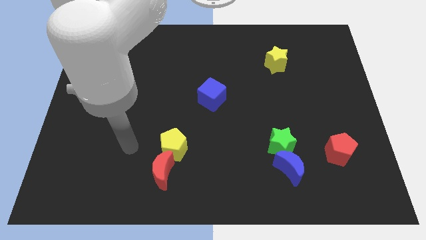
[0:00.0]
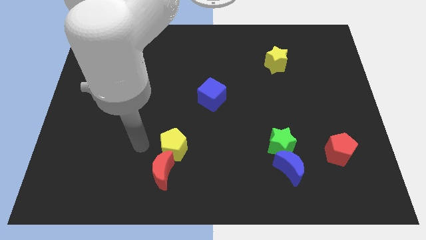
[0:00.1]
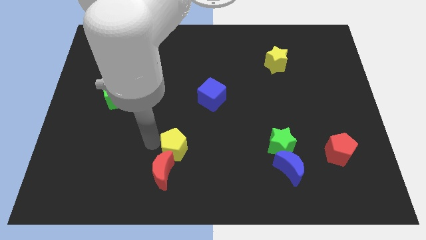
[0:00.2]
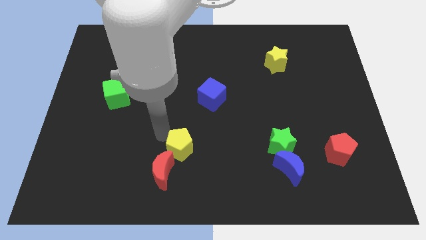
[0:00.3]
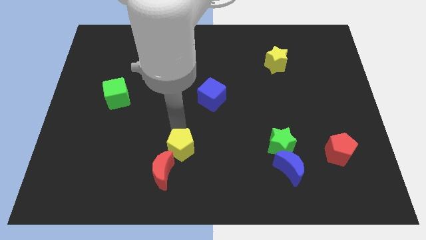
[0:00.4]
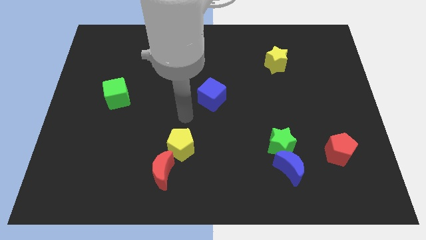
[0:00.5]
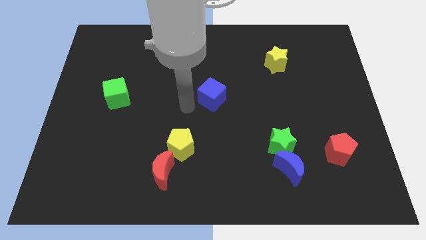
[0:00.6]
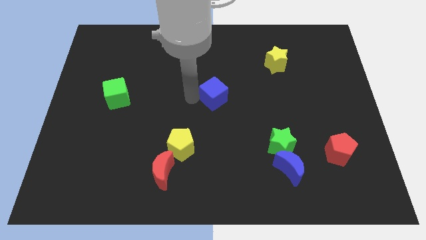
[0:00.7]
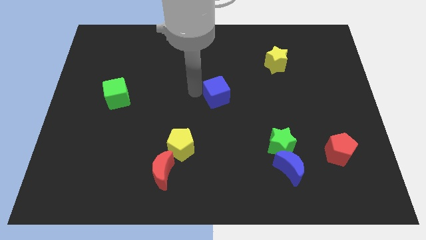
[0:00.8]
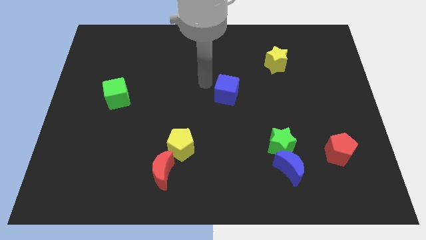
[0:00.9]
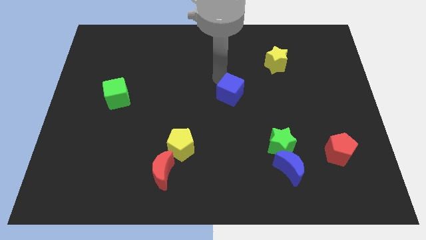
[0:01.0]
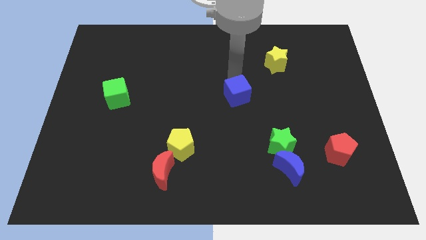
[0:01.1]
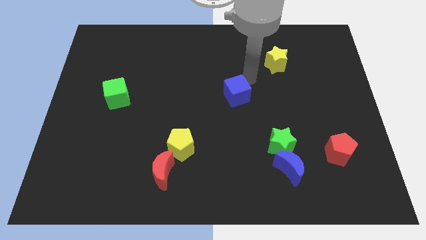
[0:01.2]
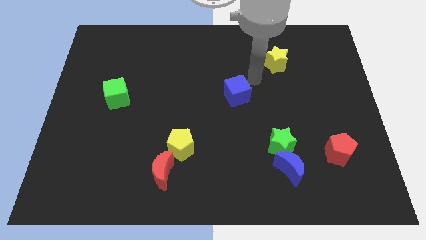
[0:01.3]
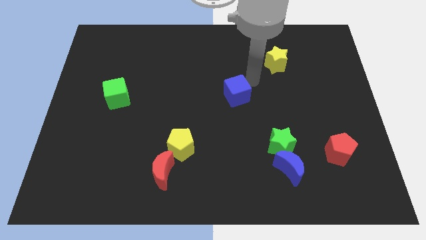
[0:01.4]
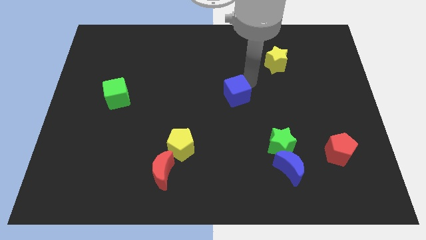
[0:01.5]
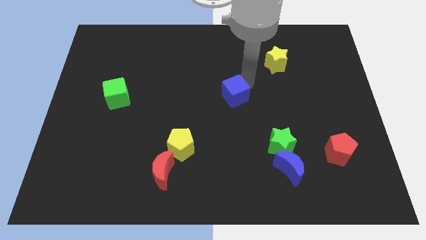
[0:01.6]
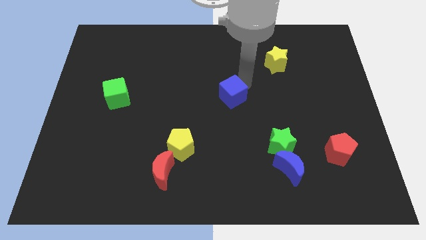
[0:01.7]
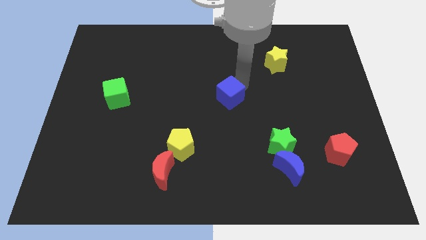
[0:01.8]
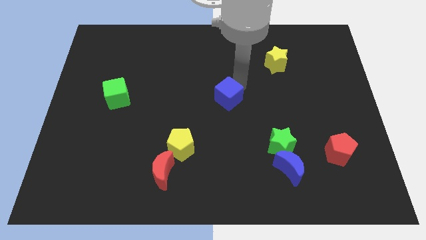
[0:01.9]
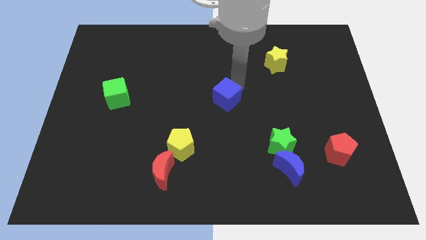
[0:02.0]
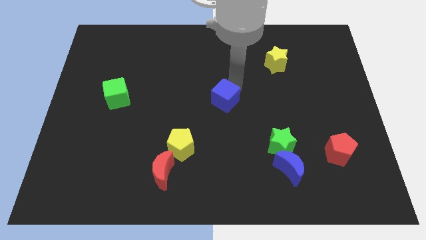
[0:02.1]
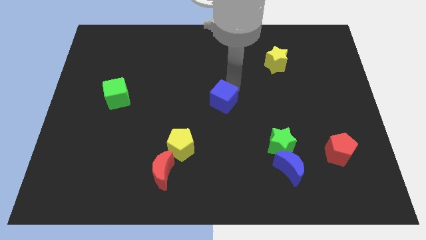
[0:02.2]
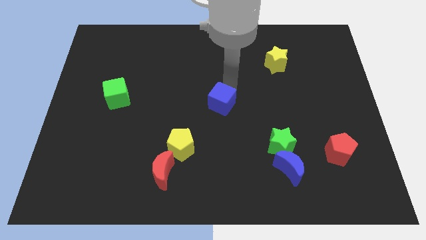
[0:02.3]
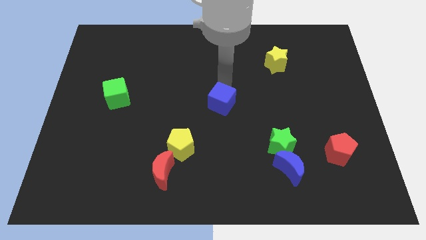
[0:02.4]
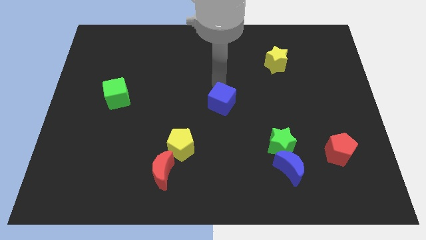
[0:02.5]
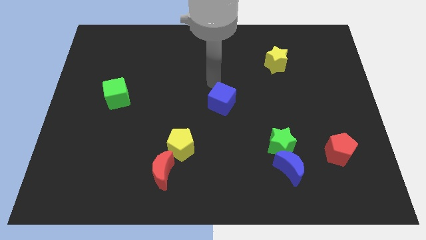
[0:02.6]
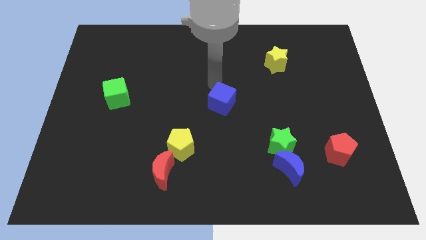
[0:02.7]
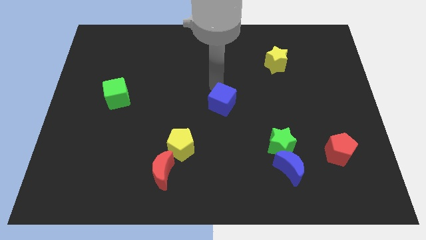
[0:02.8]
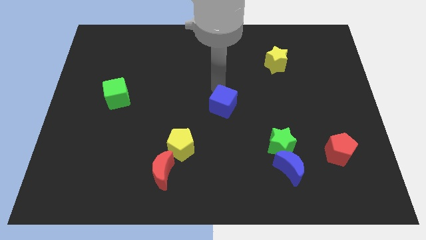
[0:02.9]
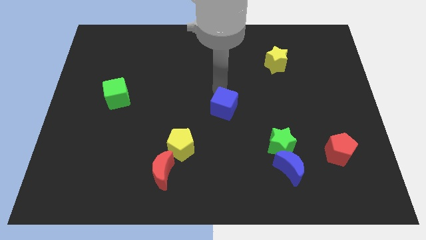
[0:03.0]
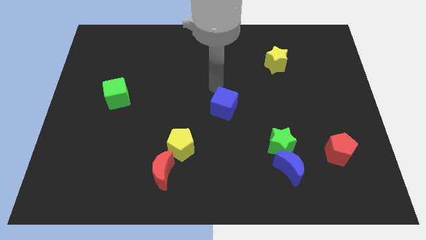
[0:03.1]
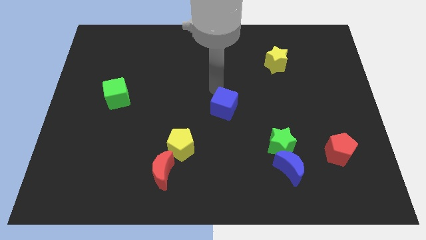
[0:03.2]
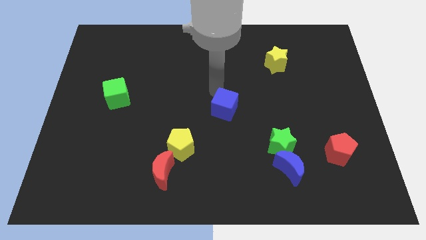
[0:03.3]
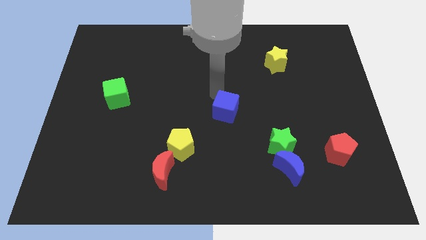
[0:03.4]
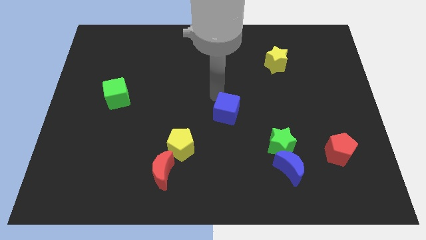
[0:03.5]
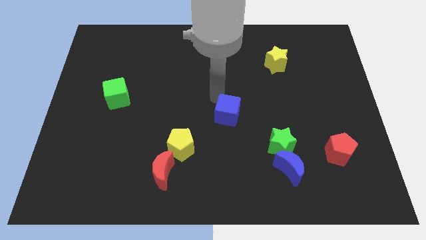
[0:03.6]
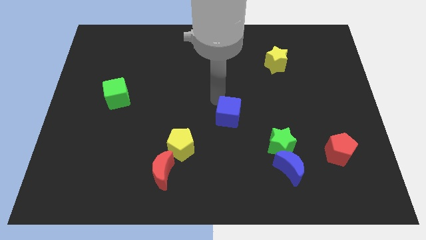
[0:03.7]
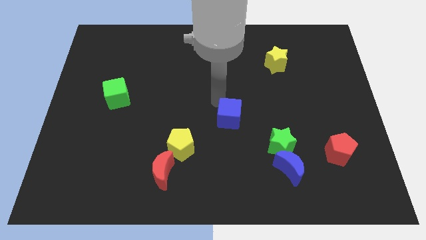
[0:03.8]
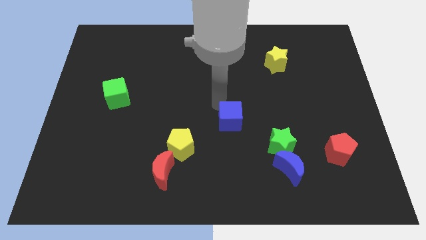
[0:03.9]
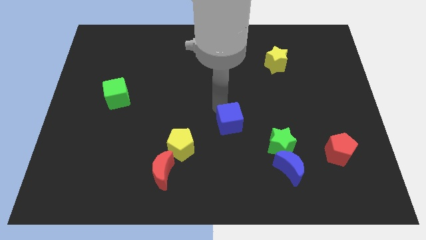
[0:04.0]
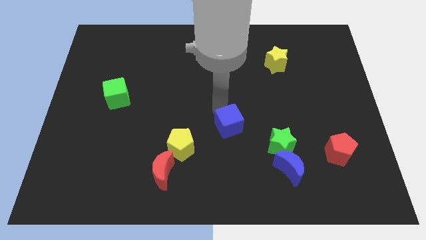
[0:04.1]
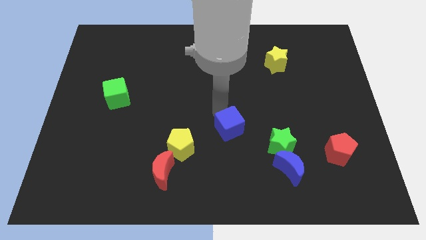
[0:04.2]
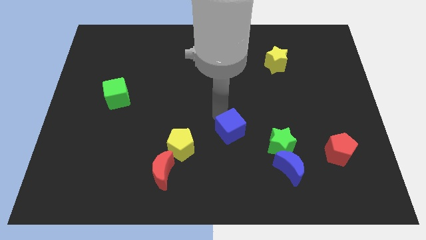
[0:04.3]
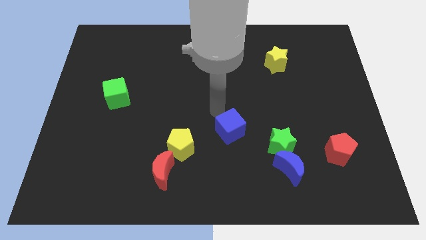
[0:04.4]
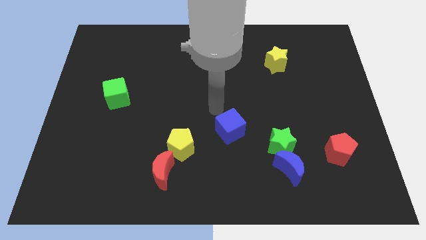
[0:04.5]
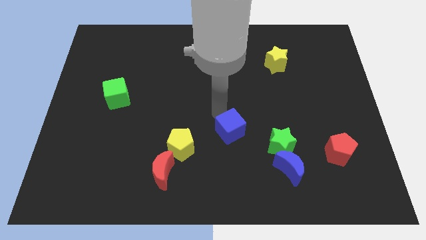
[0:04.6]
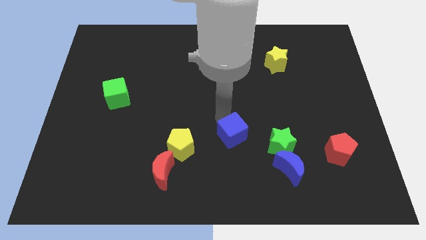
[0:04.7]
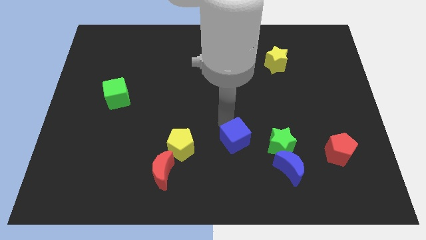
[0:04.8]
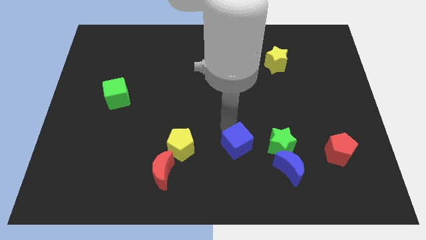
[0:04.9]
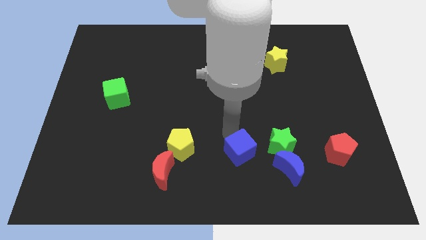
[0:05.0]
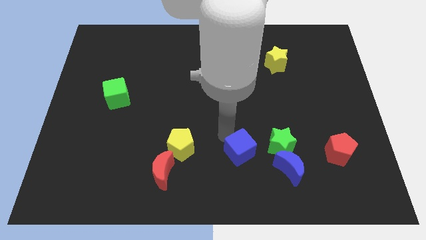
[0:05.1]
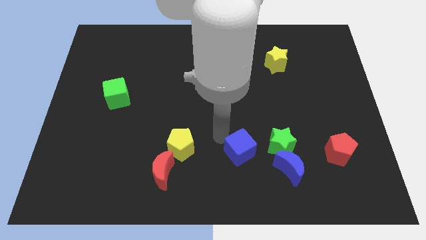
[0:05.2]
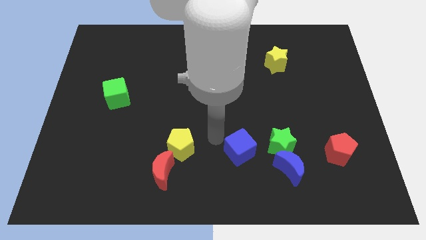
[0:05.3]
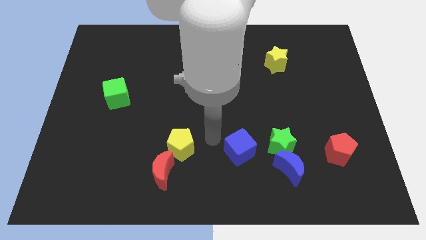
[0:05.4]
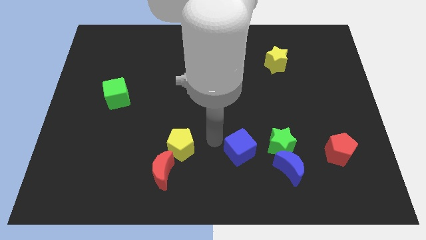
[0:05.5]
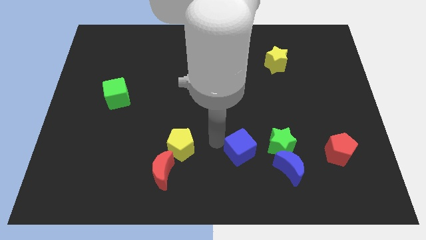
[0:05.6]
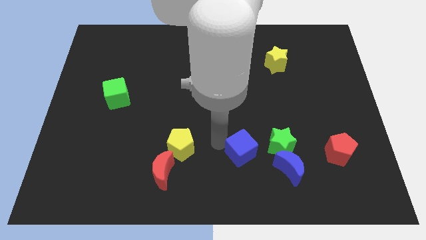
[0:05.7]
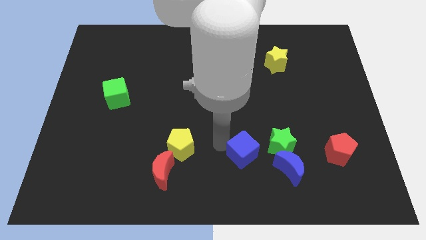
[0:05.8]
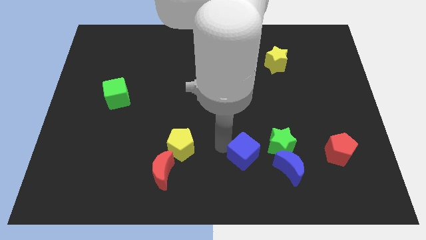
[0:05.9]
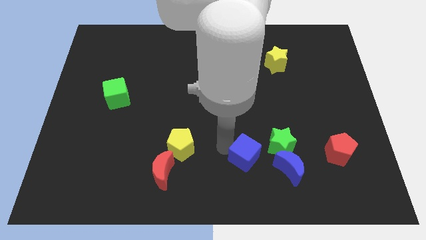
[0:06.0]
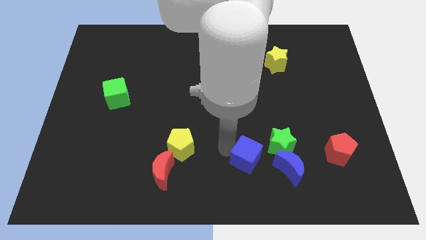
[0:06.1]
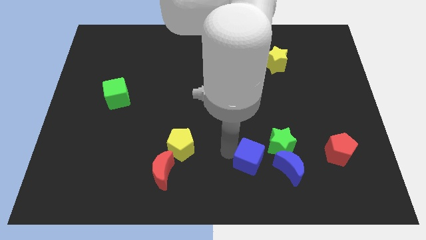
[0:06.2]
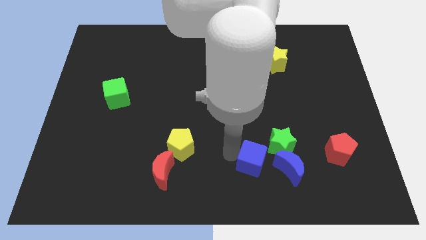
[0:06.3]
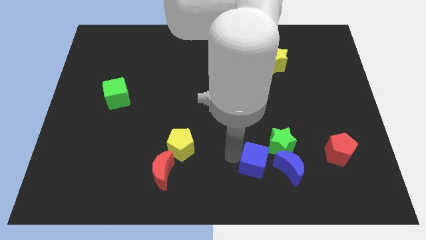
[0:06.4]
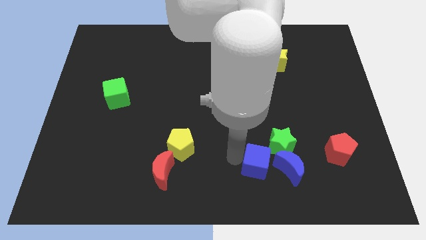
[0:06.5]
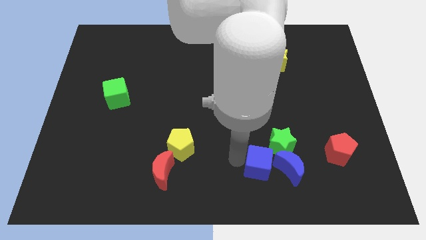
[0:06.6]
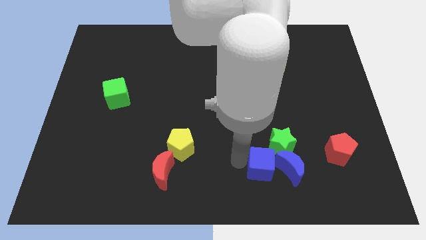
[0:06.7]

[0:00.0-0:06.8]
put the blue cube close to the blue moon

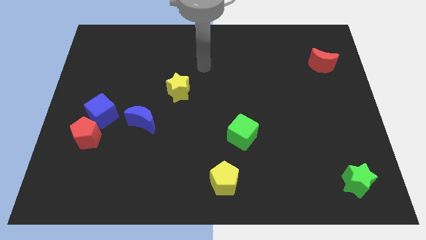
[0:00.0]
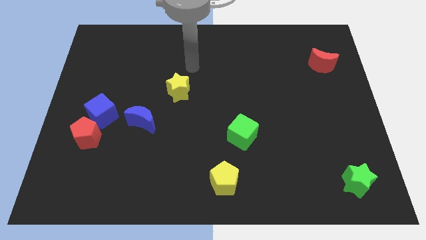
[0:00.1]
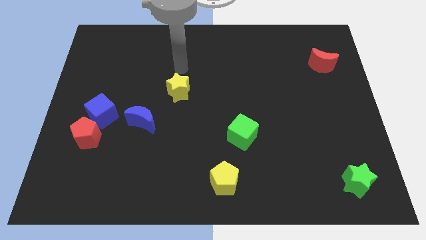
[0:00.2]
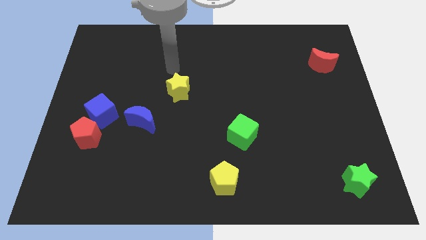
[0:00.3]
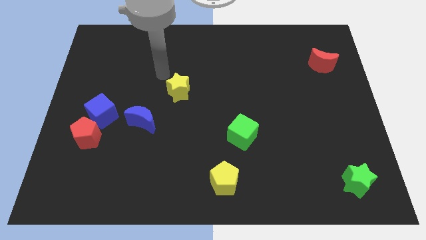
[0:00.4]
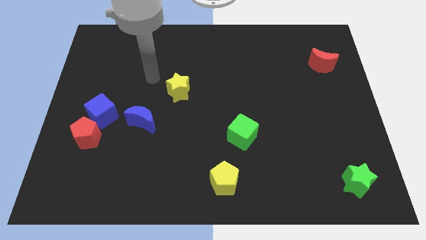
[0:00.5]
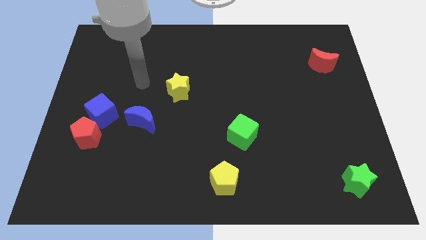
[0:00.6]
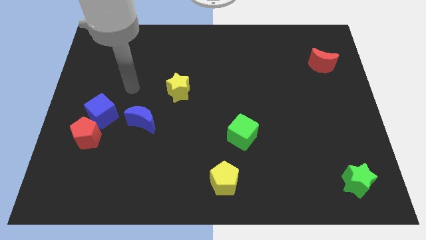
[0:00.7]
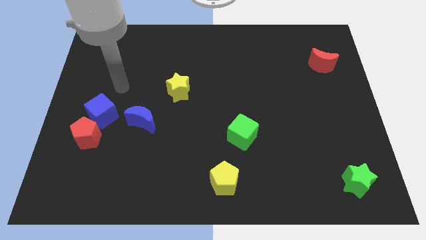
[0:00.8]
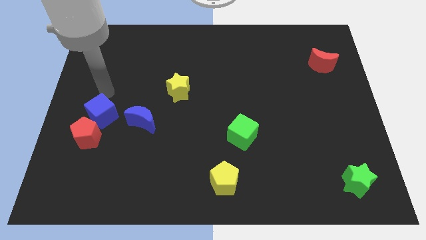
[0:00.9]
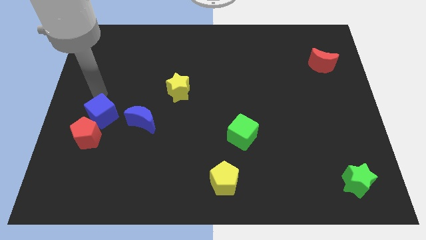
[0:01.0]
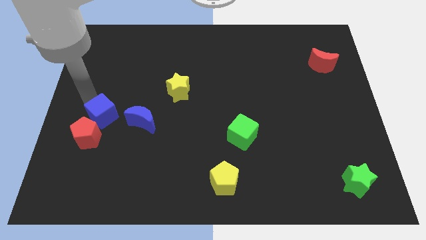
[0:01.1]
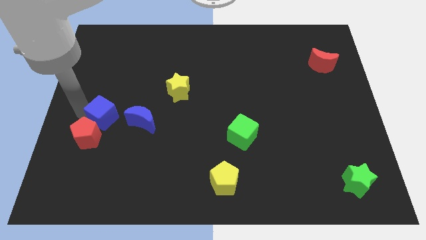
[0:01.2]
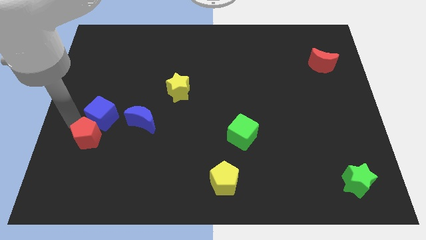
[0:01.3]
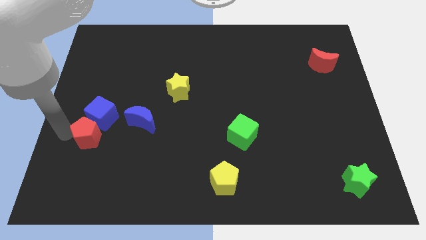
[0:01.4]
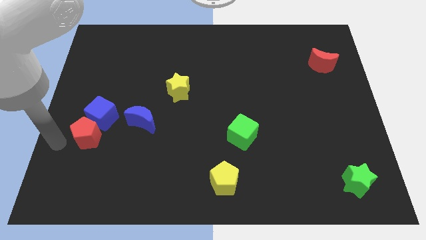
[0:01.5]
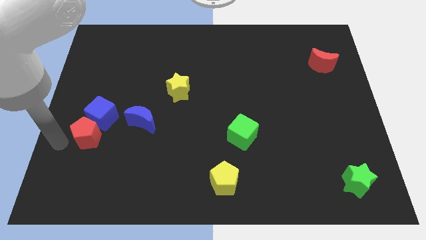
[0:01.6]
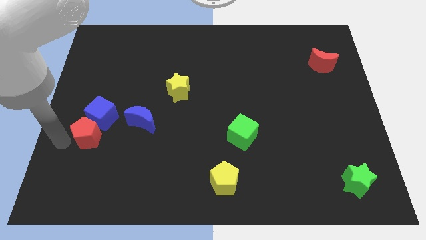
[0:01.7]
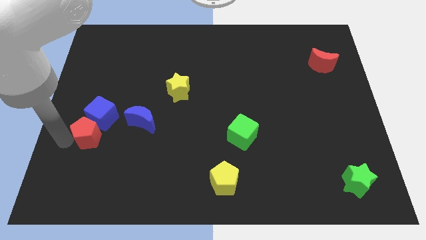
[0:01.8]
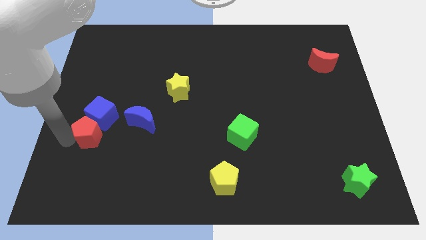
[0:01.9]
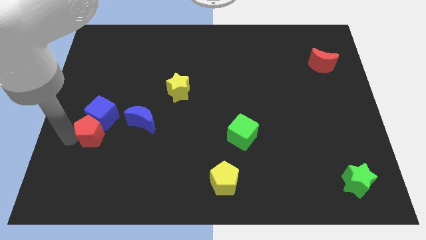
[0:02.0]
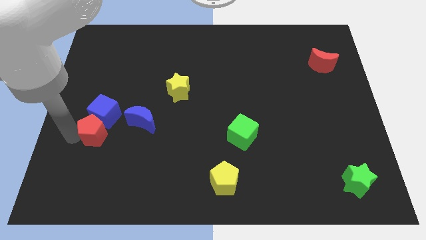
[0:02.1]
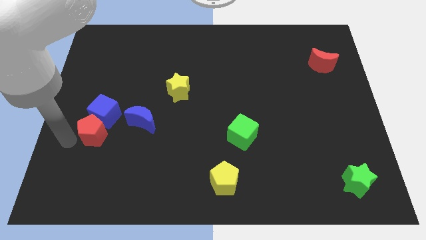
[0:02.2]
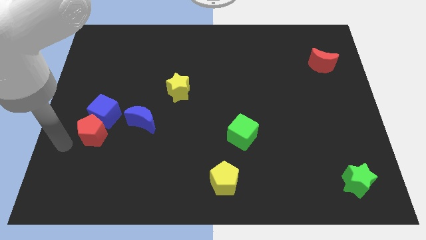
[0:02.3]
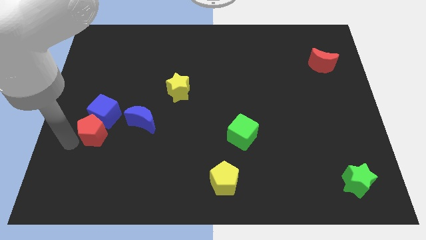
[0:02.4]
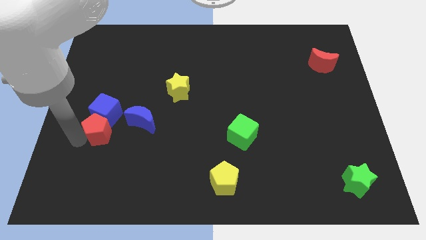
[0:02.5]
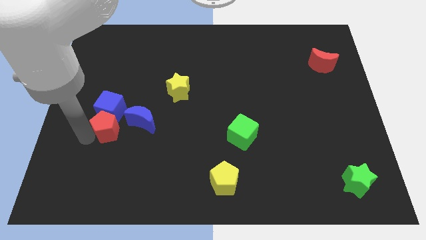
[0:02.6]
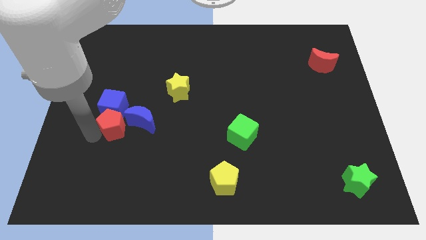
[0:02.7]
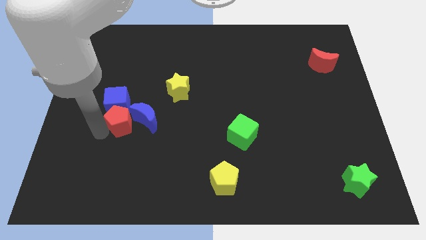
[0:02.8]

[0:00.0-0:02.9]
slide the red pentagon to the blue moon
